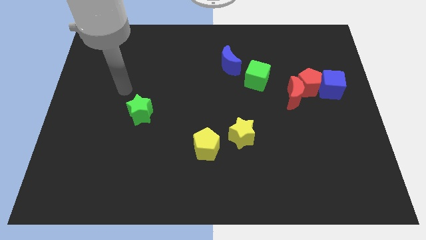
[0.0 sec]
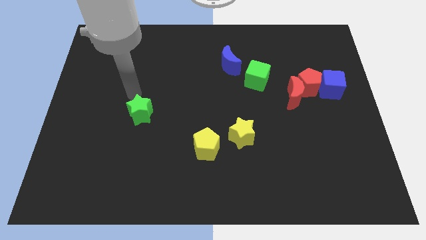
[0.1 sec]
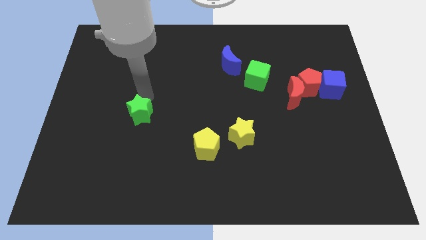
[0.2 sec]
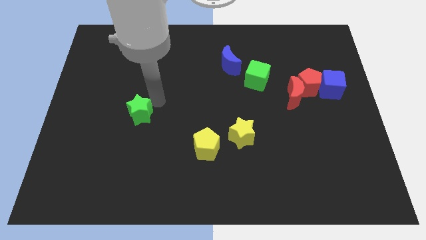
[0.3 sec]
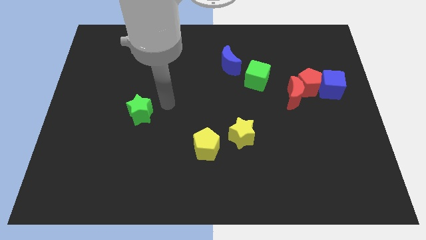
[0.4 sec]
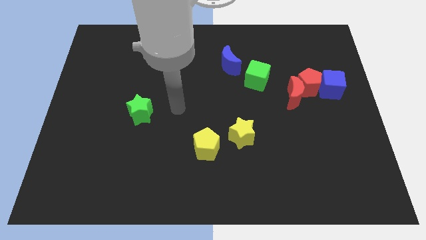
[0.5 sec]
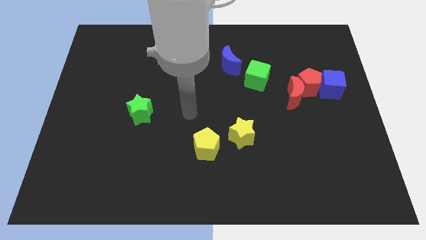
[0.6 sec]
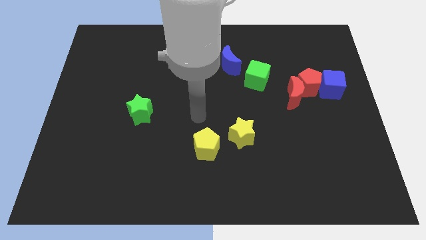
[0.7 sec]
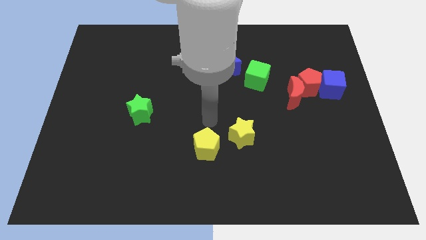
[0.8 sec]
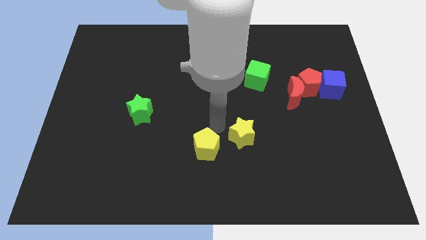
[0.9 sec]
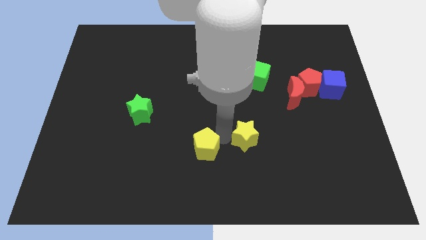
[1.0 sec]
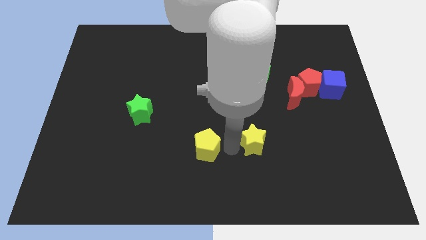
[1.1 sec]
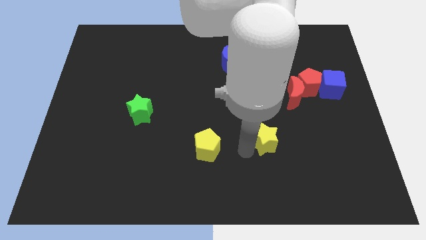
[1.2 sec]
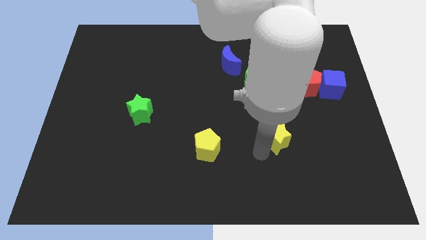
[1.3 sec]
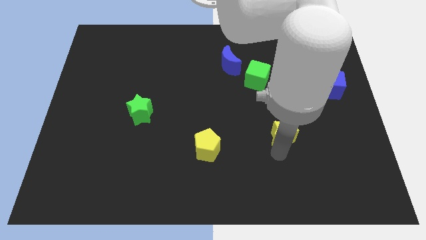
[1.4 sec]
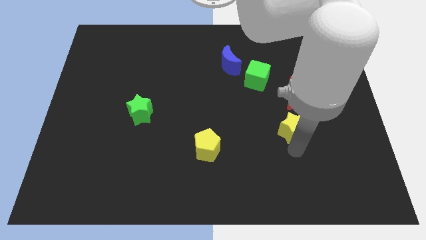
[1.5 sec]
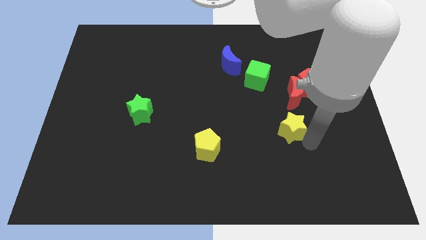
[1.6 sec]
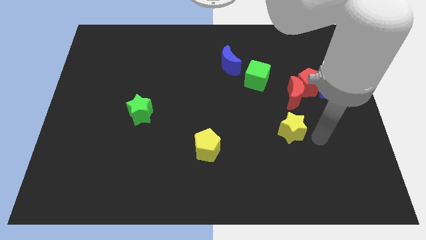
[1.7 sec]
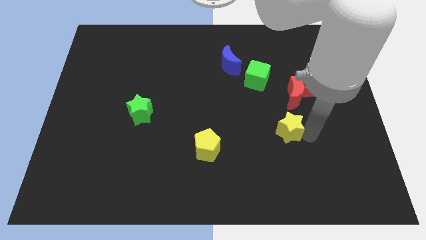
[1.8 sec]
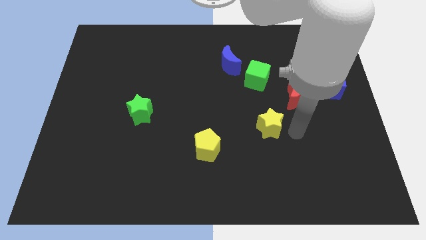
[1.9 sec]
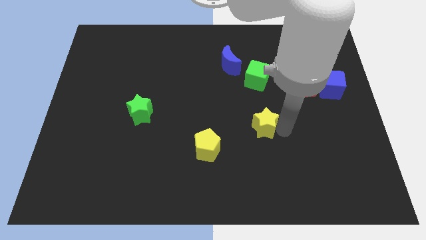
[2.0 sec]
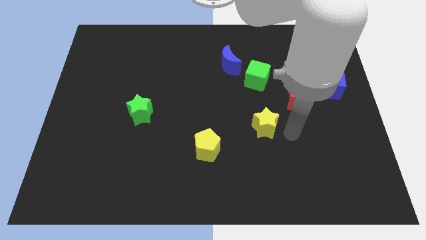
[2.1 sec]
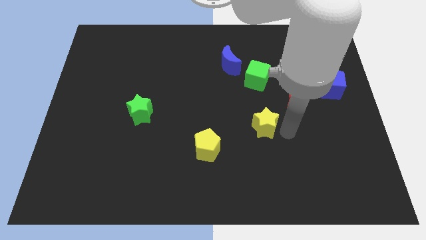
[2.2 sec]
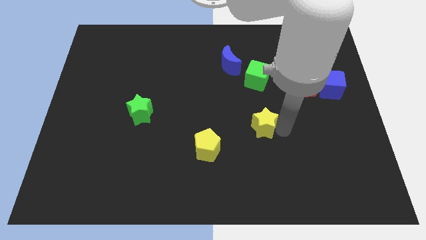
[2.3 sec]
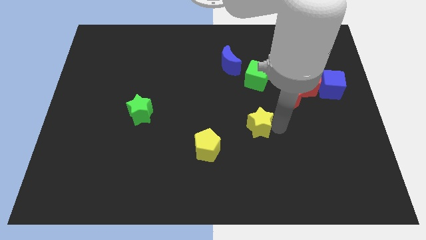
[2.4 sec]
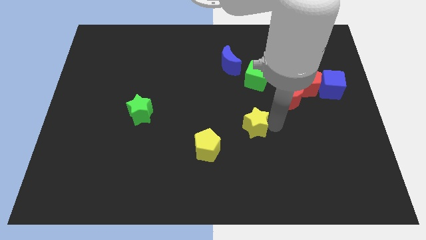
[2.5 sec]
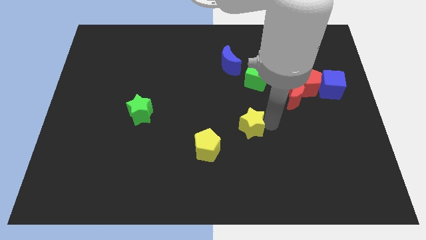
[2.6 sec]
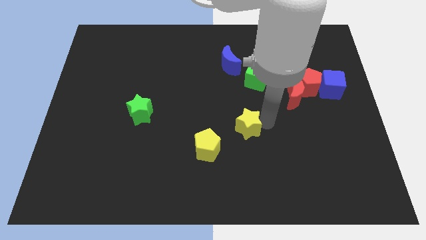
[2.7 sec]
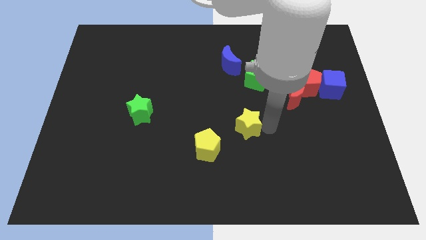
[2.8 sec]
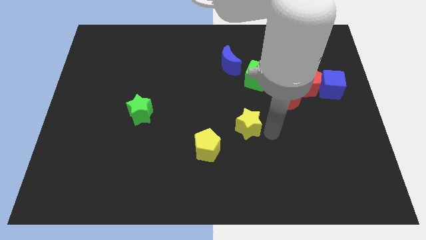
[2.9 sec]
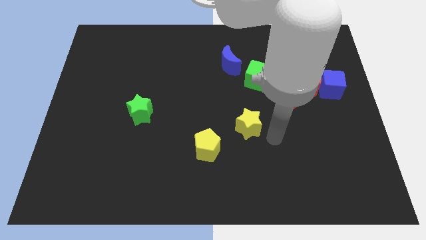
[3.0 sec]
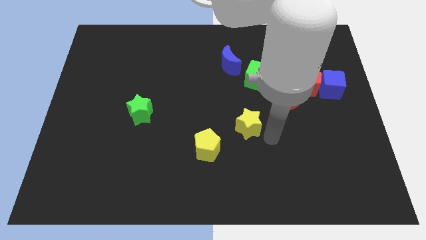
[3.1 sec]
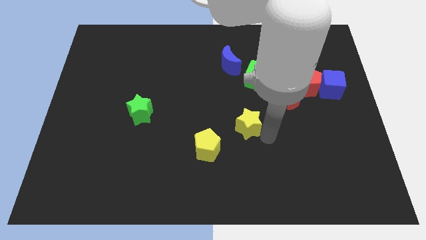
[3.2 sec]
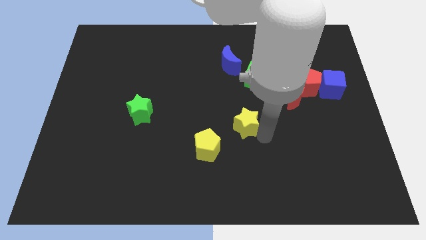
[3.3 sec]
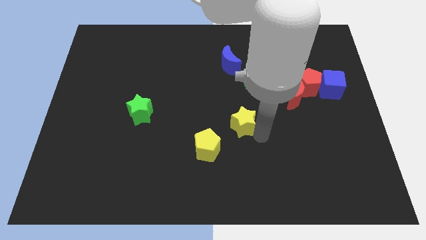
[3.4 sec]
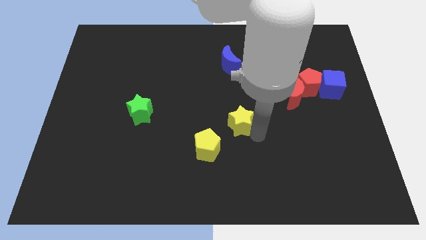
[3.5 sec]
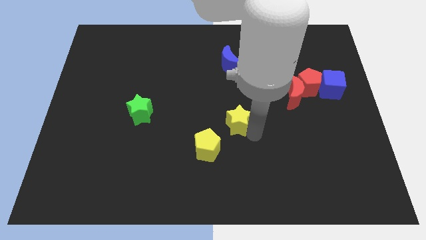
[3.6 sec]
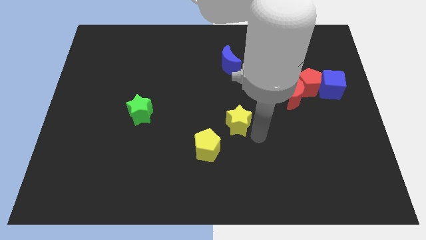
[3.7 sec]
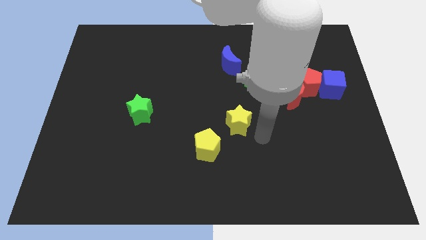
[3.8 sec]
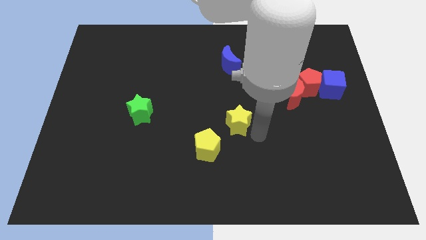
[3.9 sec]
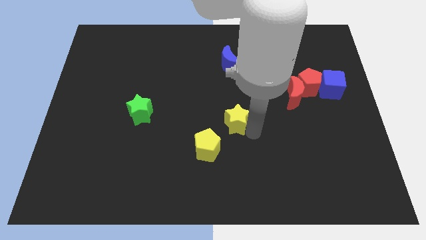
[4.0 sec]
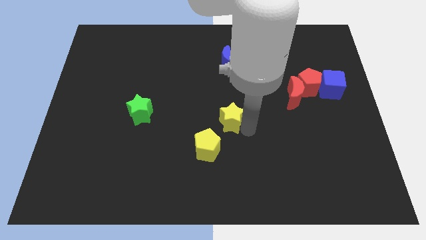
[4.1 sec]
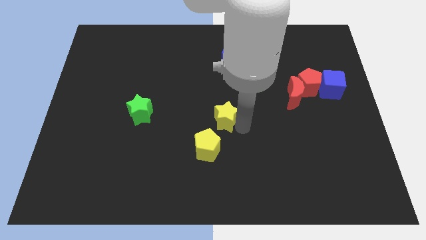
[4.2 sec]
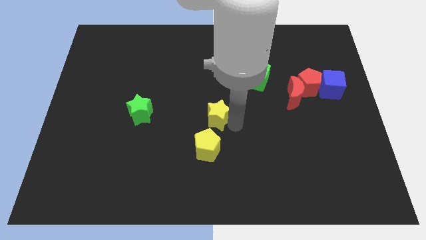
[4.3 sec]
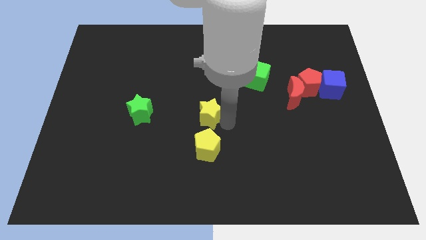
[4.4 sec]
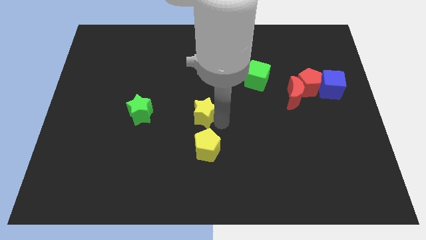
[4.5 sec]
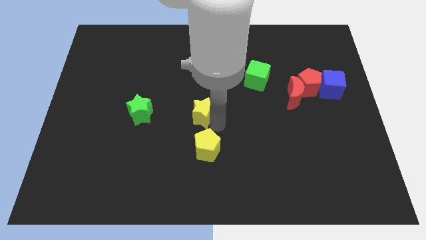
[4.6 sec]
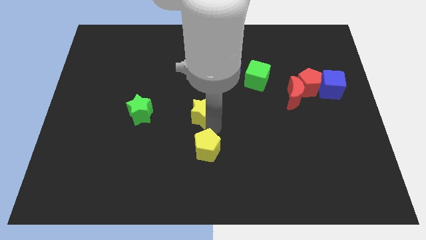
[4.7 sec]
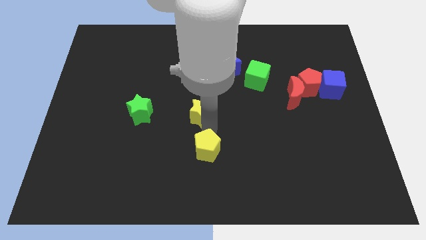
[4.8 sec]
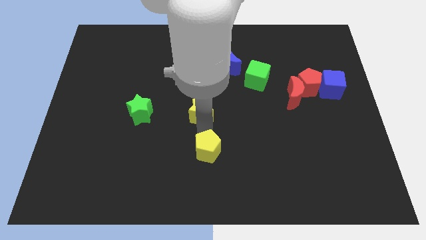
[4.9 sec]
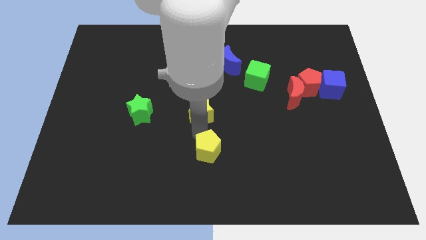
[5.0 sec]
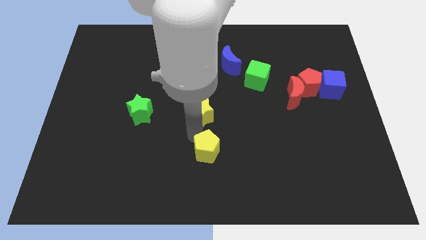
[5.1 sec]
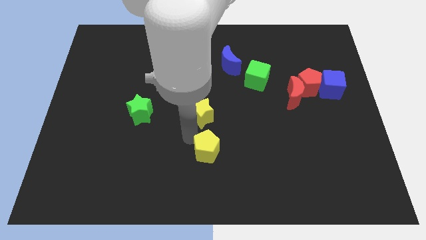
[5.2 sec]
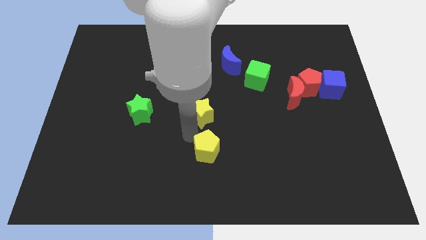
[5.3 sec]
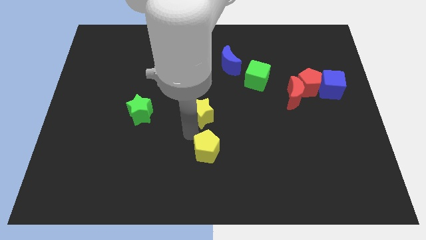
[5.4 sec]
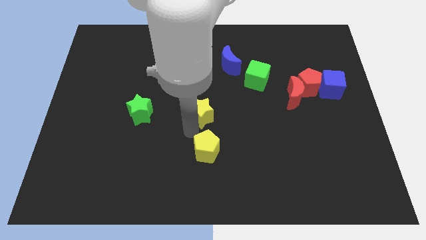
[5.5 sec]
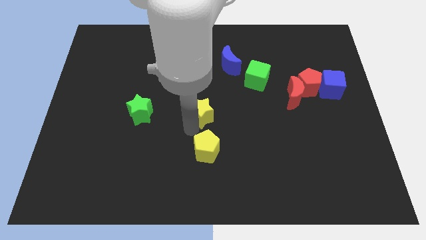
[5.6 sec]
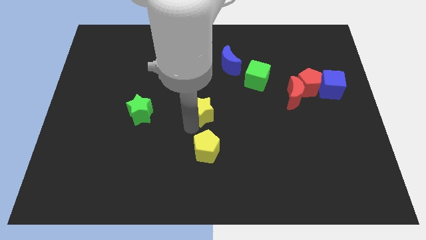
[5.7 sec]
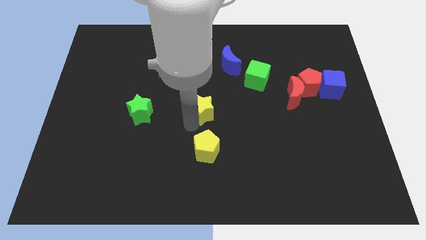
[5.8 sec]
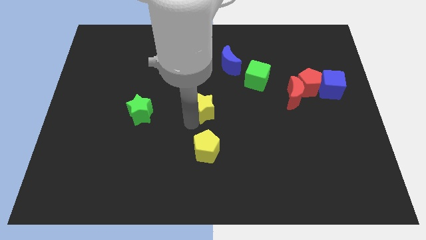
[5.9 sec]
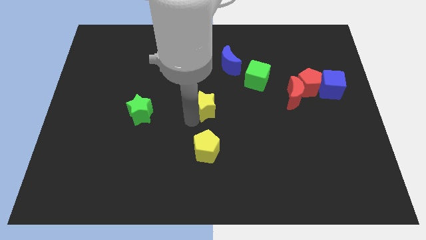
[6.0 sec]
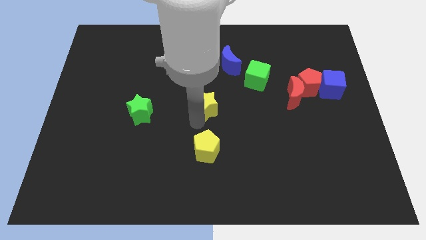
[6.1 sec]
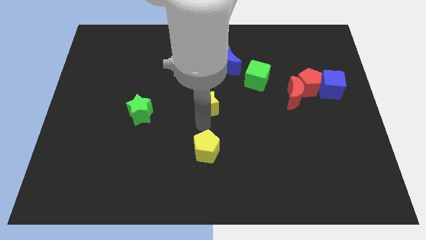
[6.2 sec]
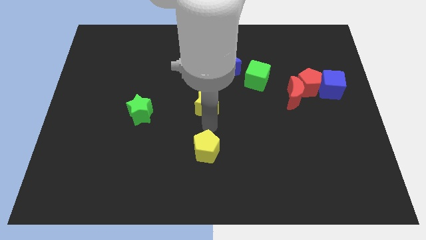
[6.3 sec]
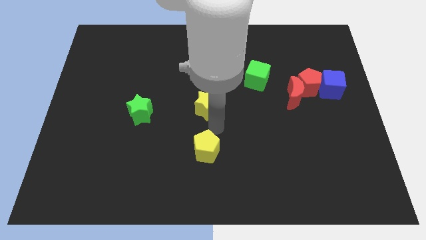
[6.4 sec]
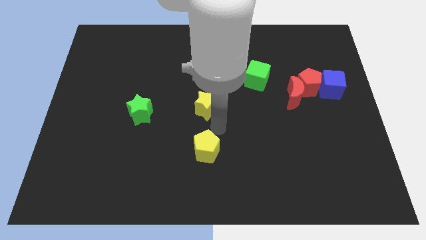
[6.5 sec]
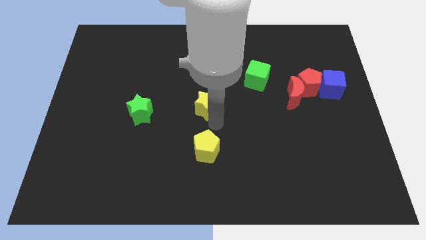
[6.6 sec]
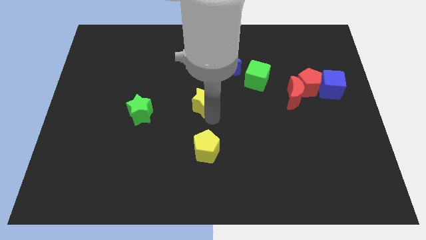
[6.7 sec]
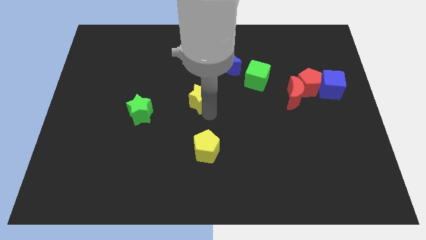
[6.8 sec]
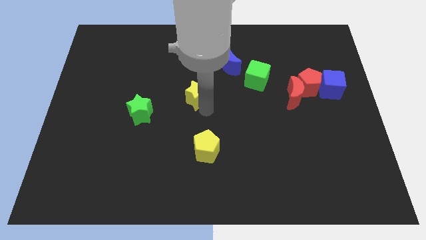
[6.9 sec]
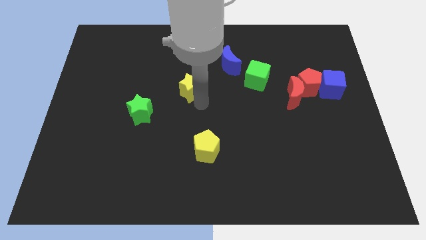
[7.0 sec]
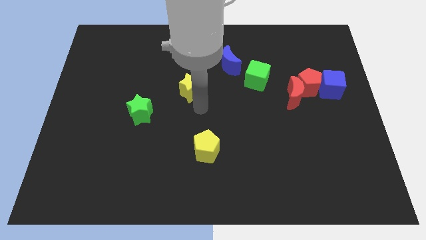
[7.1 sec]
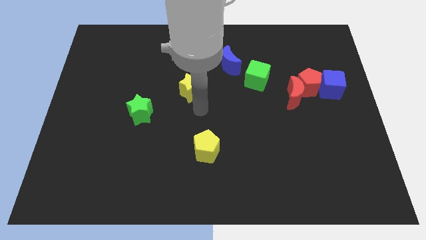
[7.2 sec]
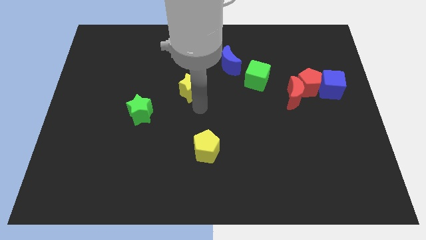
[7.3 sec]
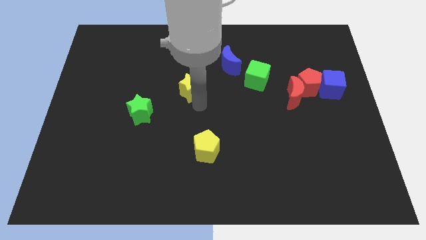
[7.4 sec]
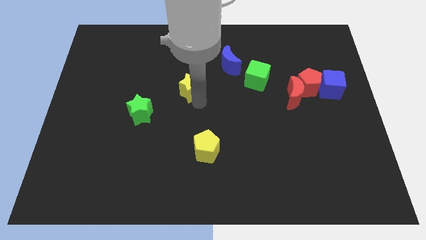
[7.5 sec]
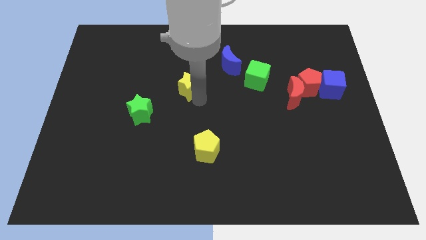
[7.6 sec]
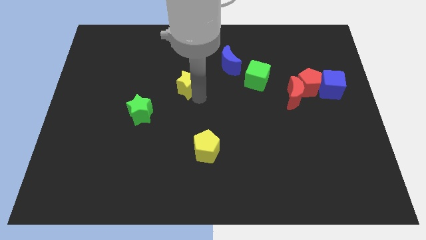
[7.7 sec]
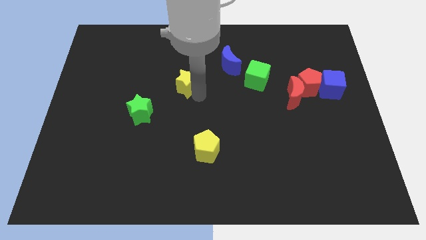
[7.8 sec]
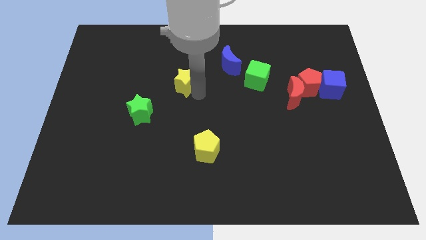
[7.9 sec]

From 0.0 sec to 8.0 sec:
move the yellow star upwards and left diagonally

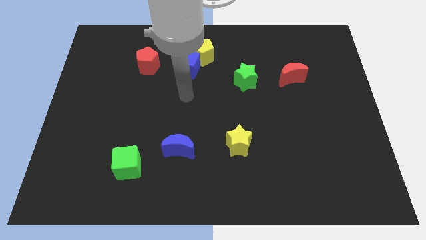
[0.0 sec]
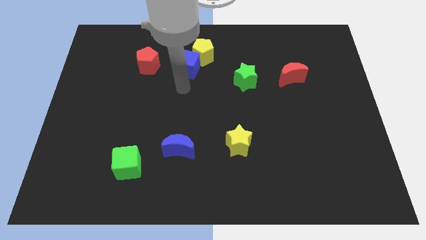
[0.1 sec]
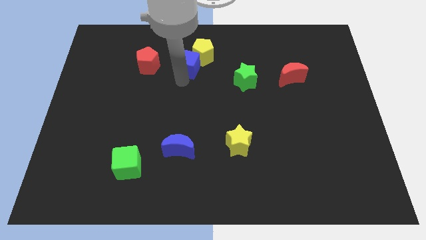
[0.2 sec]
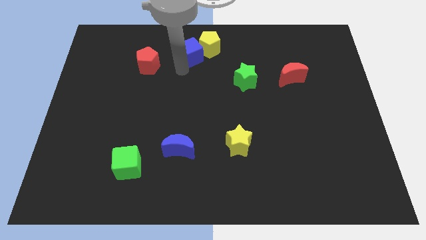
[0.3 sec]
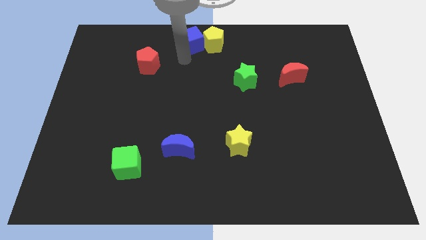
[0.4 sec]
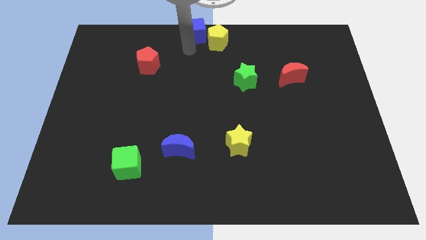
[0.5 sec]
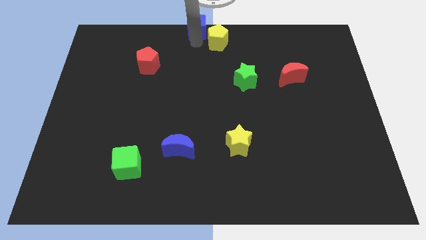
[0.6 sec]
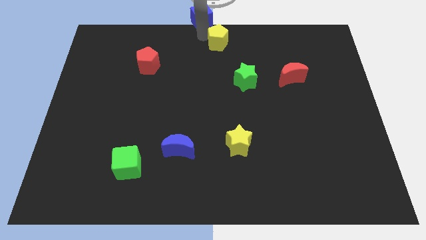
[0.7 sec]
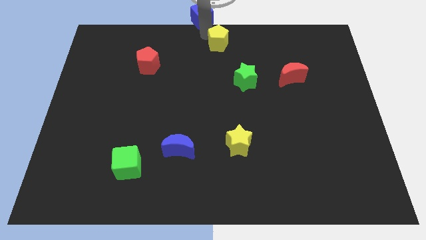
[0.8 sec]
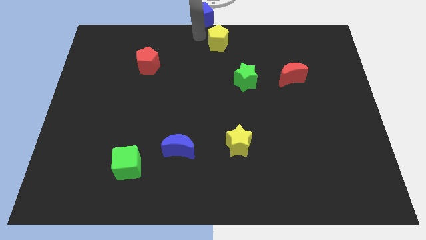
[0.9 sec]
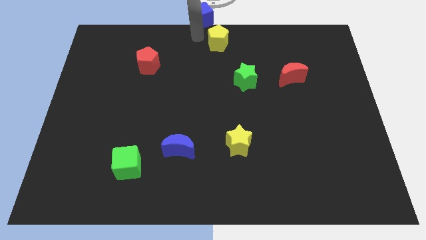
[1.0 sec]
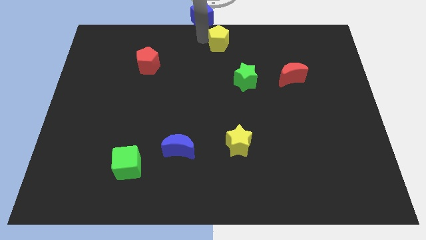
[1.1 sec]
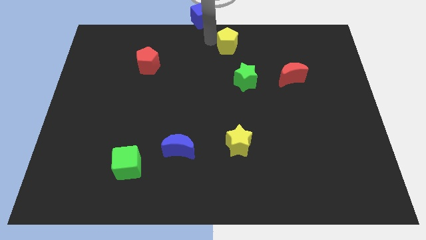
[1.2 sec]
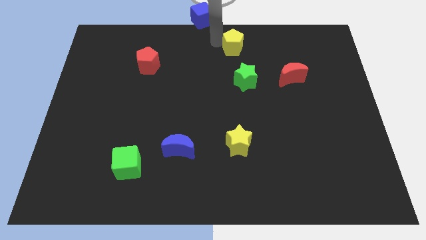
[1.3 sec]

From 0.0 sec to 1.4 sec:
slide the yellow pentagon somewhat right
